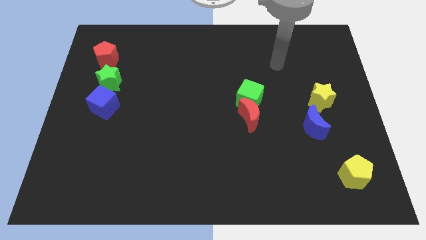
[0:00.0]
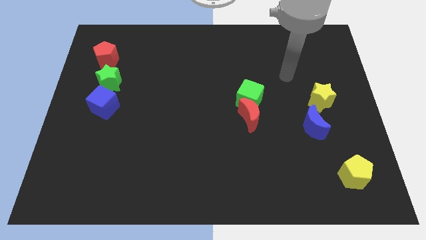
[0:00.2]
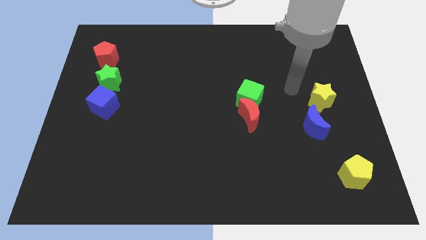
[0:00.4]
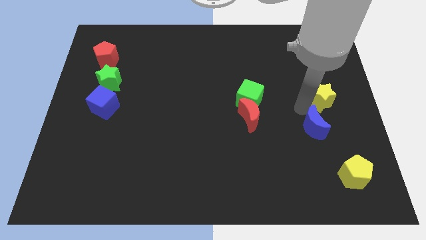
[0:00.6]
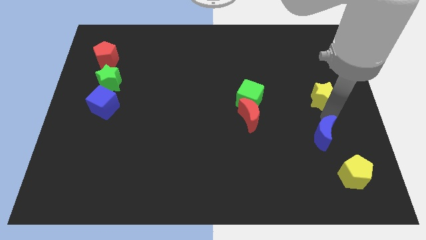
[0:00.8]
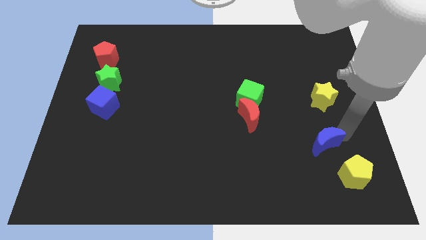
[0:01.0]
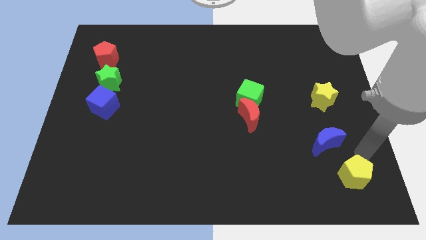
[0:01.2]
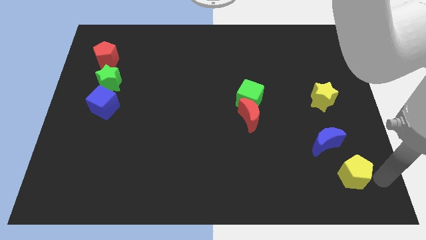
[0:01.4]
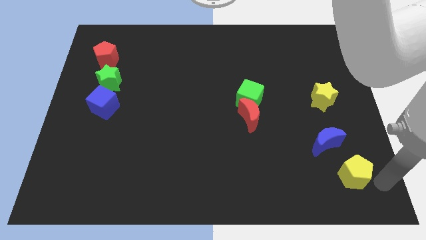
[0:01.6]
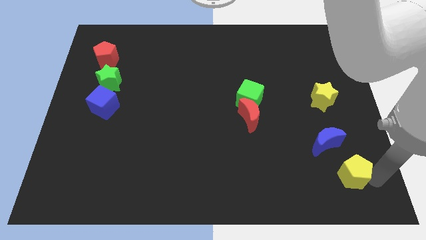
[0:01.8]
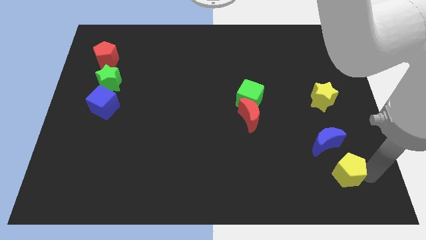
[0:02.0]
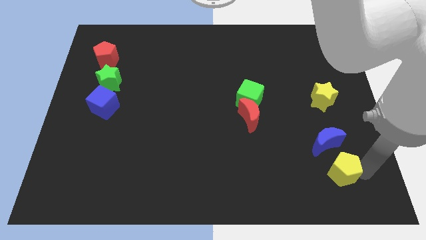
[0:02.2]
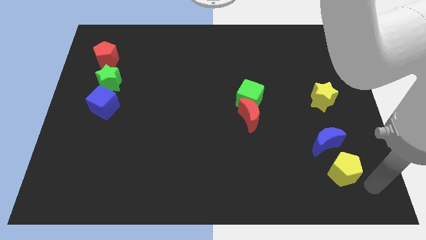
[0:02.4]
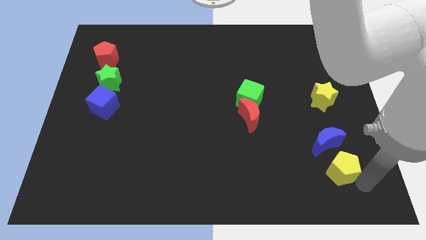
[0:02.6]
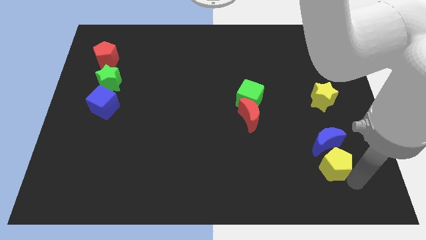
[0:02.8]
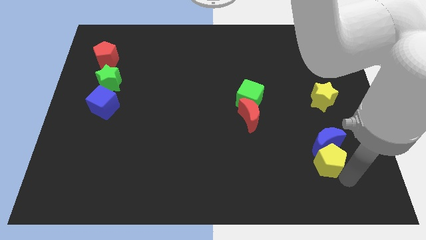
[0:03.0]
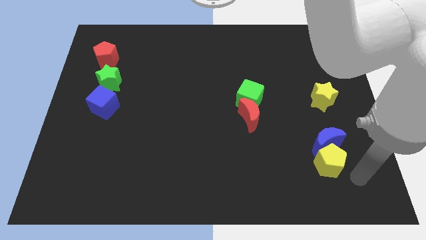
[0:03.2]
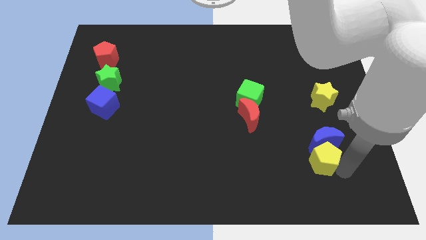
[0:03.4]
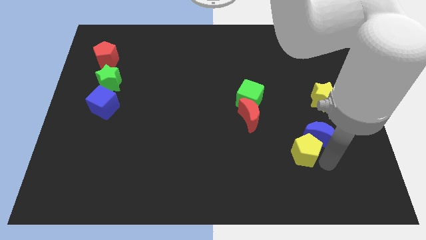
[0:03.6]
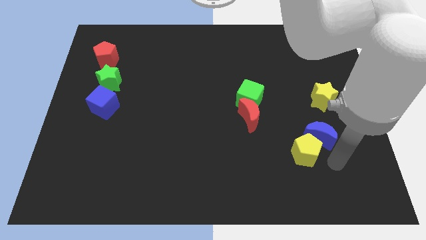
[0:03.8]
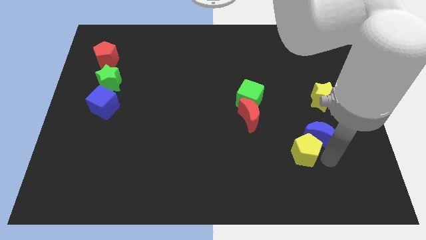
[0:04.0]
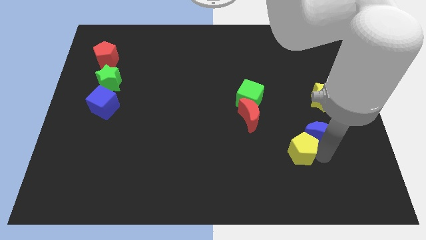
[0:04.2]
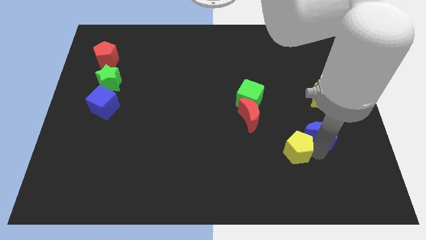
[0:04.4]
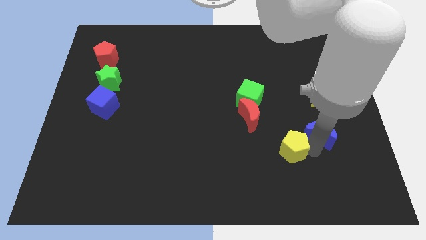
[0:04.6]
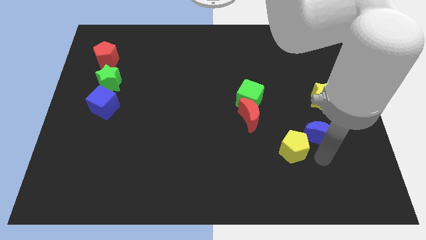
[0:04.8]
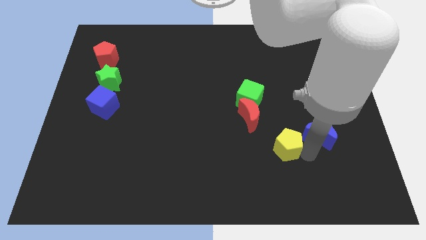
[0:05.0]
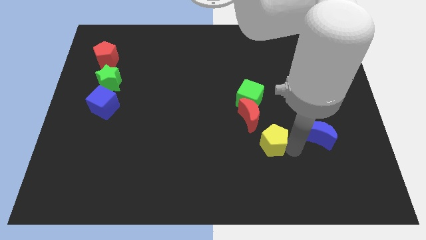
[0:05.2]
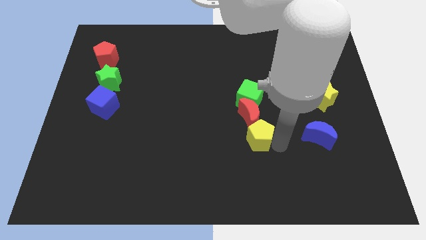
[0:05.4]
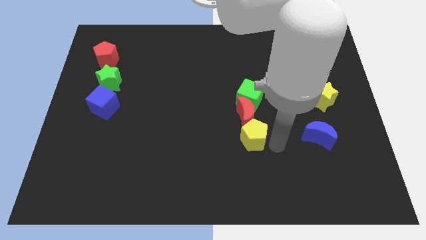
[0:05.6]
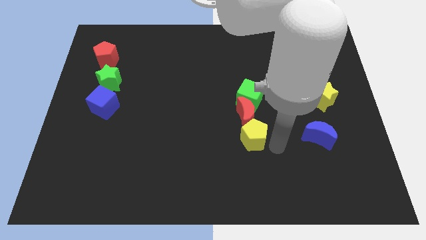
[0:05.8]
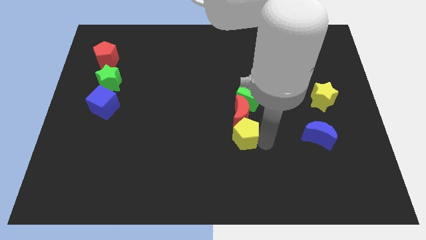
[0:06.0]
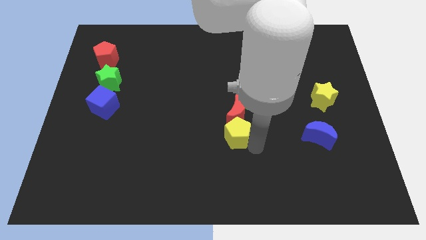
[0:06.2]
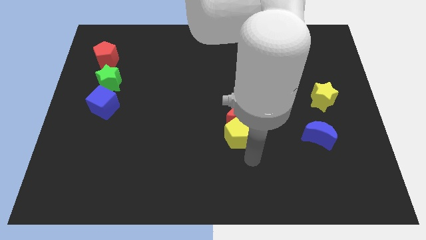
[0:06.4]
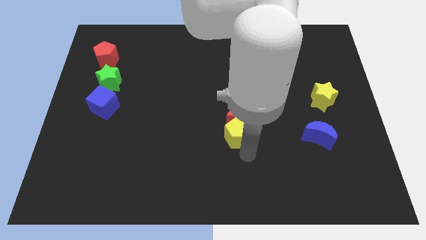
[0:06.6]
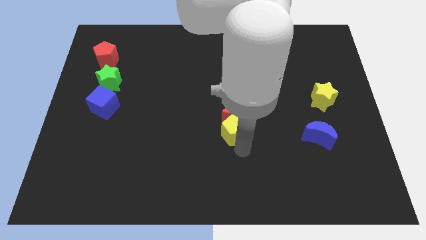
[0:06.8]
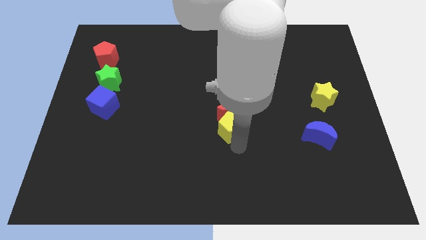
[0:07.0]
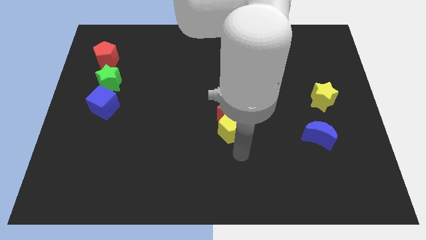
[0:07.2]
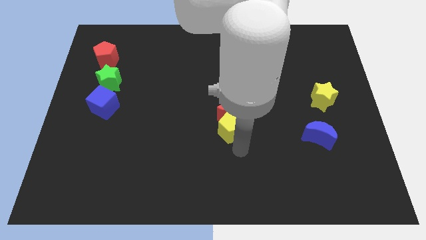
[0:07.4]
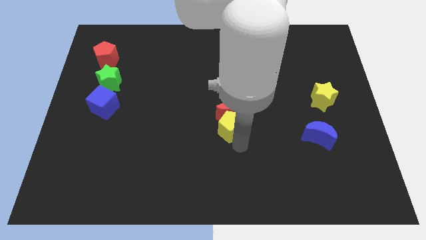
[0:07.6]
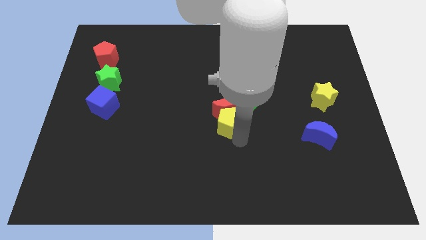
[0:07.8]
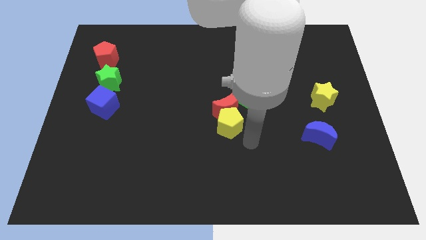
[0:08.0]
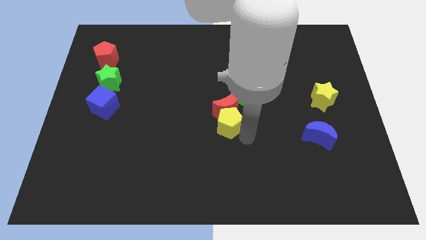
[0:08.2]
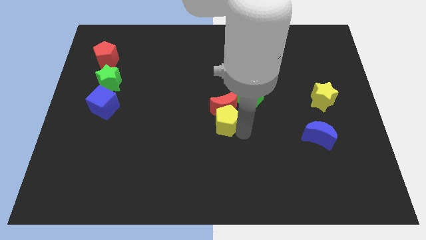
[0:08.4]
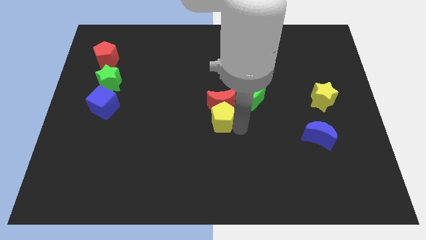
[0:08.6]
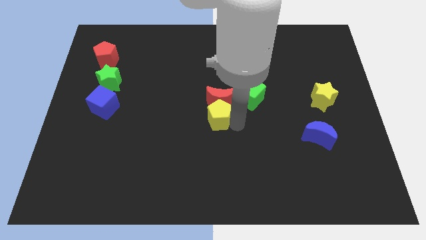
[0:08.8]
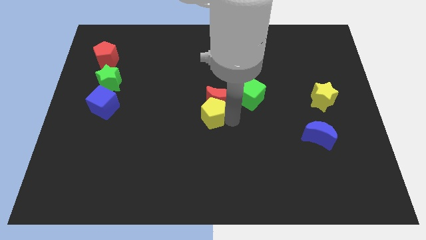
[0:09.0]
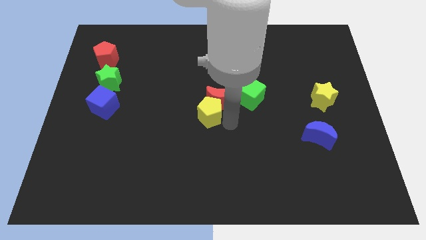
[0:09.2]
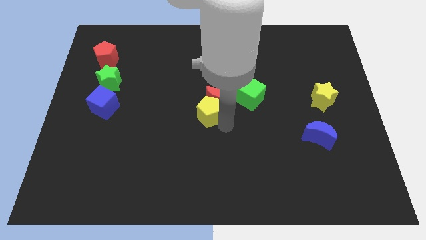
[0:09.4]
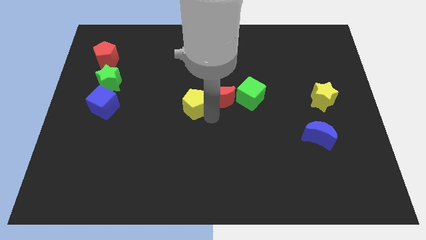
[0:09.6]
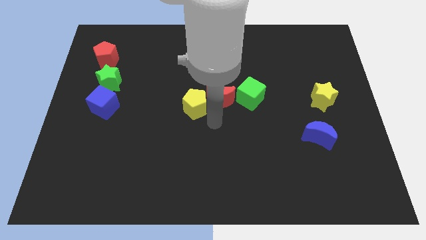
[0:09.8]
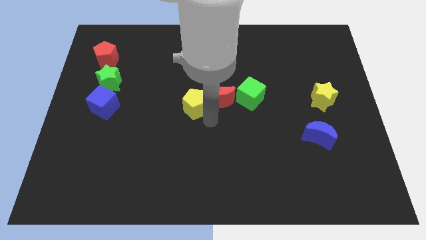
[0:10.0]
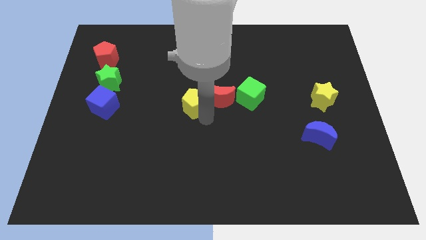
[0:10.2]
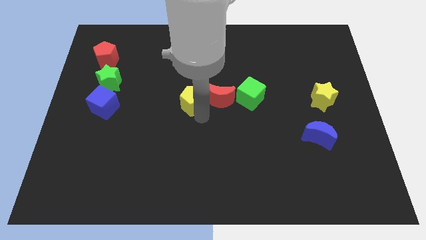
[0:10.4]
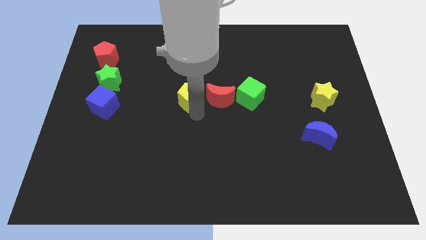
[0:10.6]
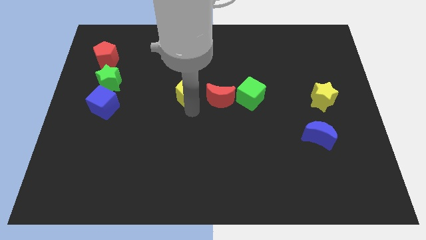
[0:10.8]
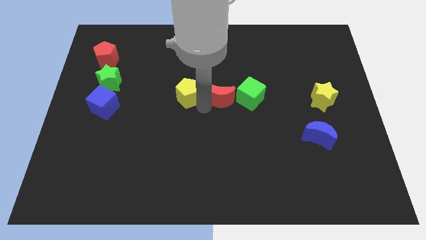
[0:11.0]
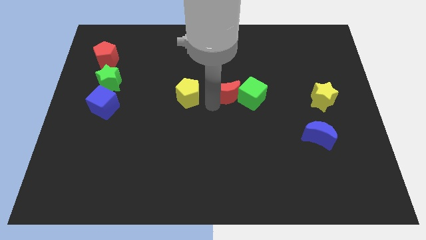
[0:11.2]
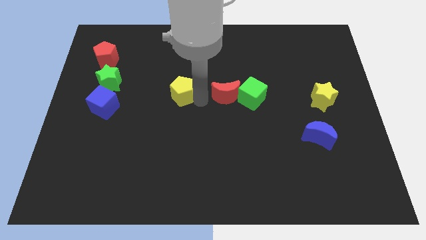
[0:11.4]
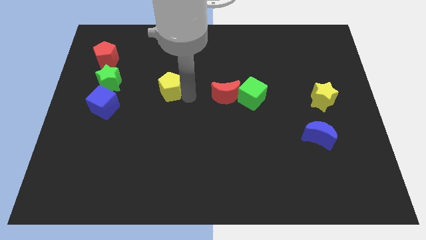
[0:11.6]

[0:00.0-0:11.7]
slide the yellow pentagon to the right of the green star

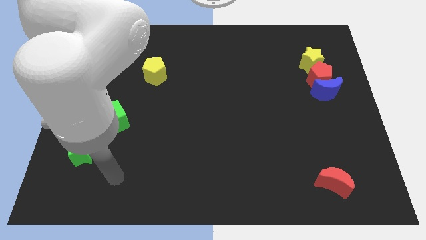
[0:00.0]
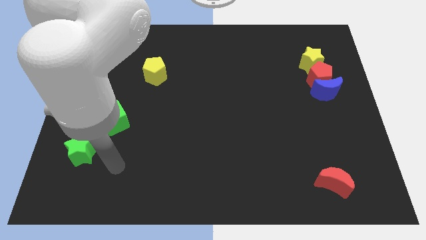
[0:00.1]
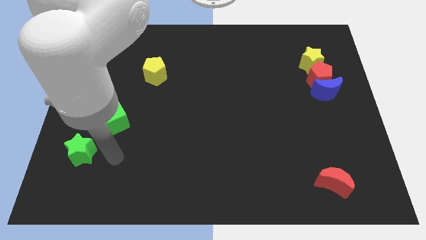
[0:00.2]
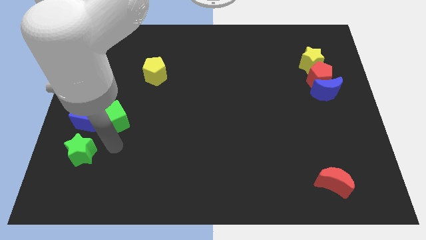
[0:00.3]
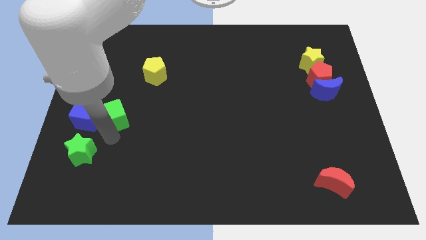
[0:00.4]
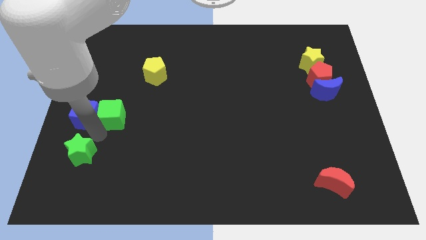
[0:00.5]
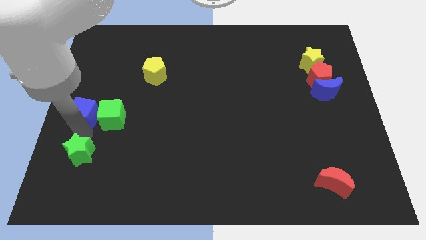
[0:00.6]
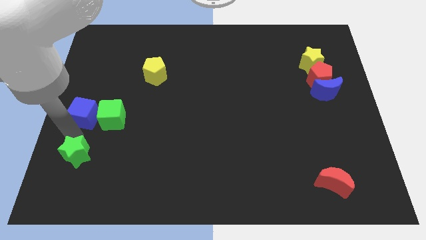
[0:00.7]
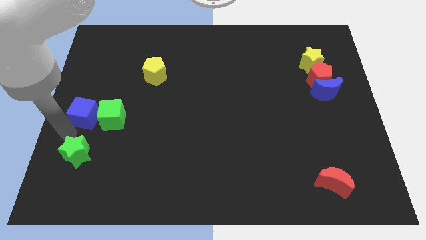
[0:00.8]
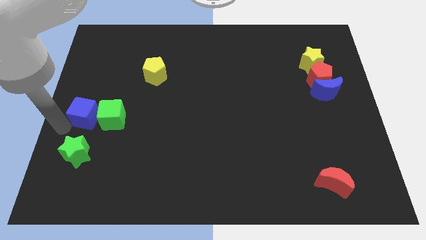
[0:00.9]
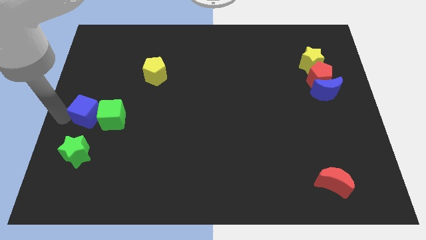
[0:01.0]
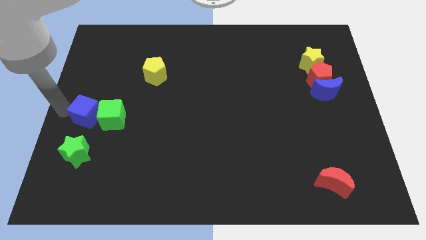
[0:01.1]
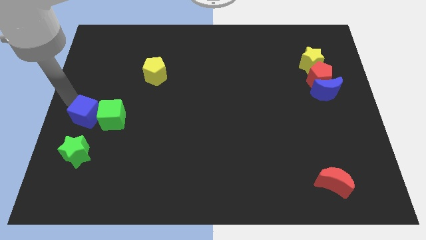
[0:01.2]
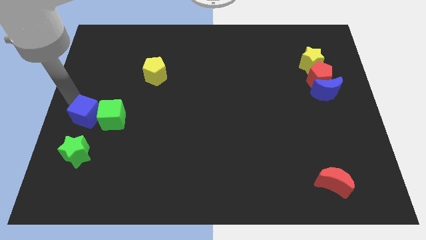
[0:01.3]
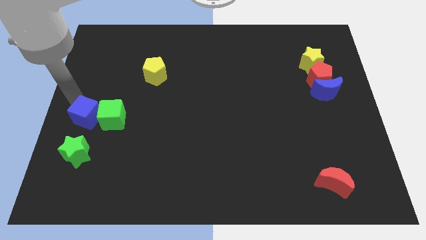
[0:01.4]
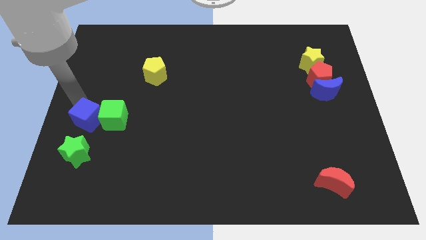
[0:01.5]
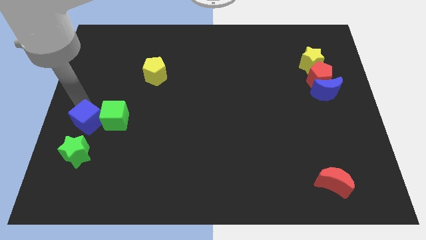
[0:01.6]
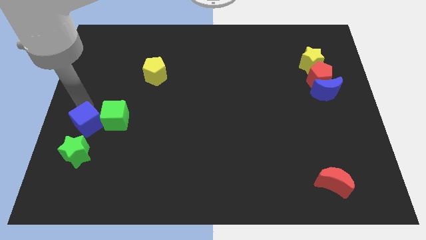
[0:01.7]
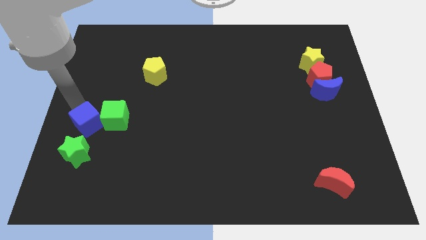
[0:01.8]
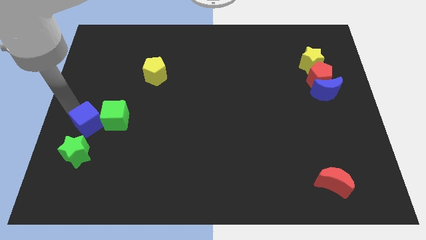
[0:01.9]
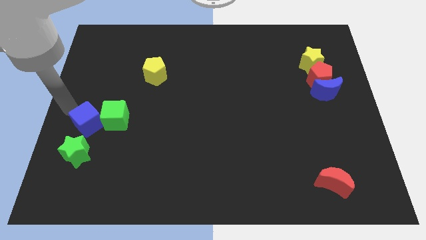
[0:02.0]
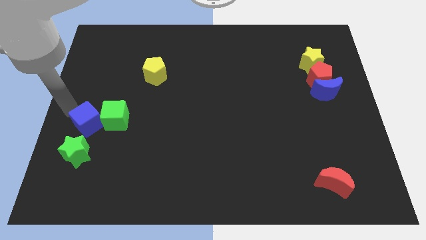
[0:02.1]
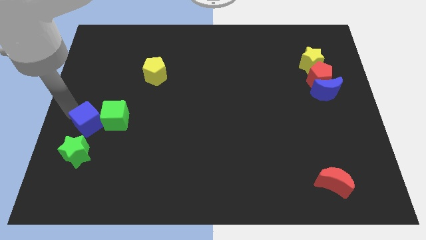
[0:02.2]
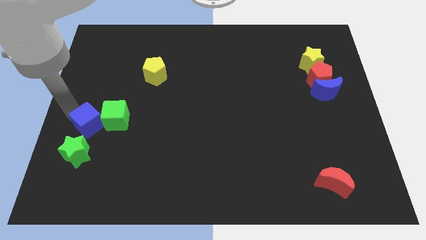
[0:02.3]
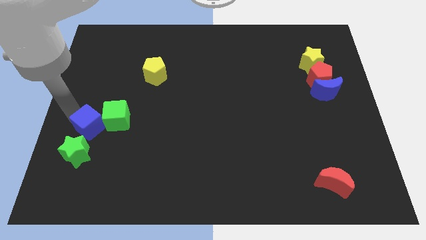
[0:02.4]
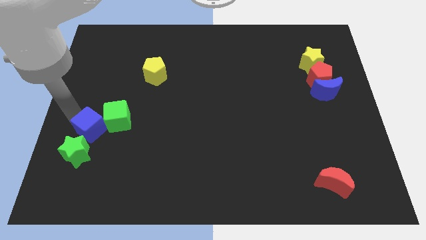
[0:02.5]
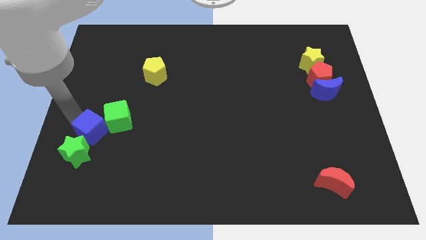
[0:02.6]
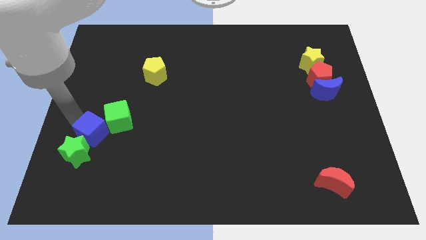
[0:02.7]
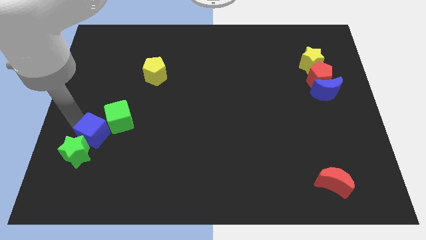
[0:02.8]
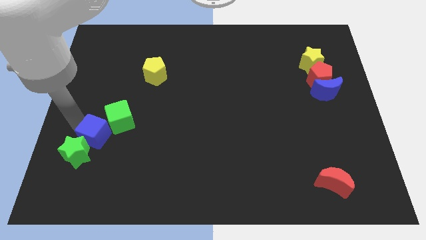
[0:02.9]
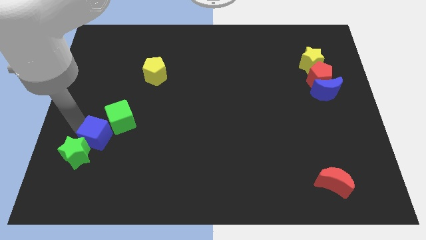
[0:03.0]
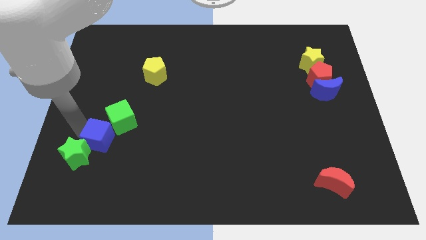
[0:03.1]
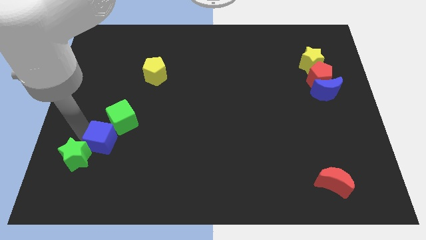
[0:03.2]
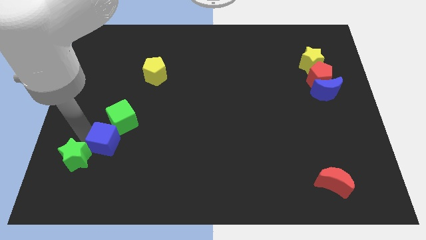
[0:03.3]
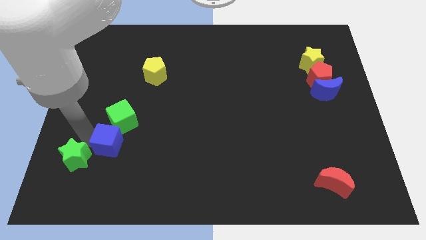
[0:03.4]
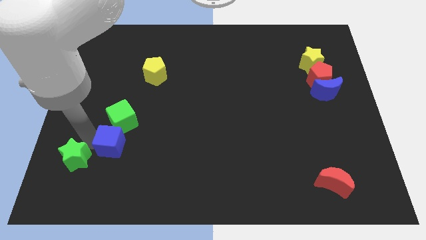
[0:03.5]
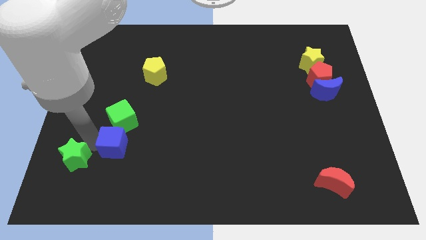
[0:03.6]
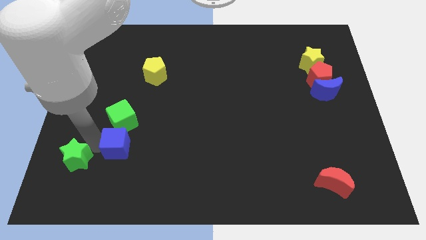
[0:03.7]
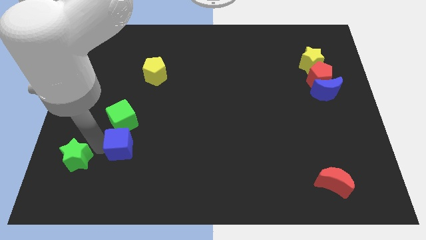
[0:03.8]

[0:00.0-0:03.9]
move the blue cube to the bottom right of the green cube
